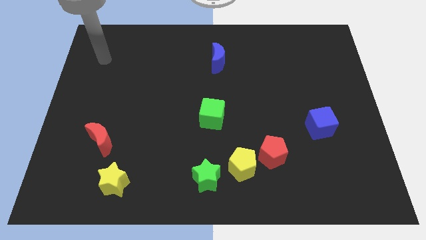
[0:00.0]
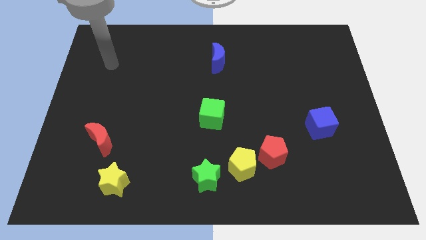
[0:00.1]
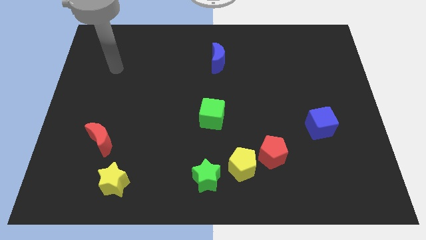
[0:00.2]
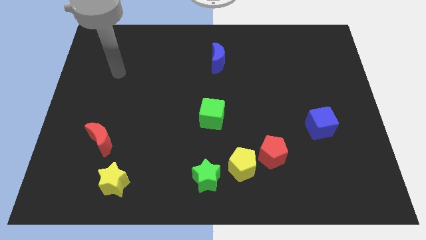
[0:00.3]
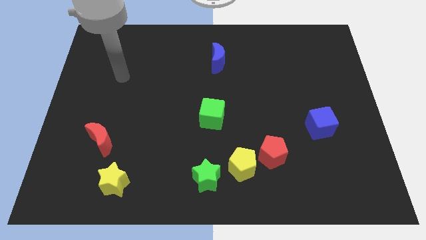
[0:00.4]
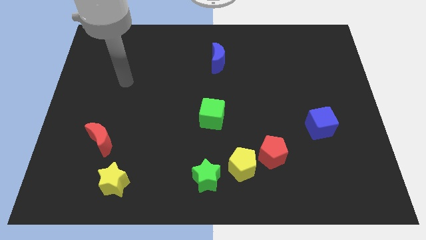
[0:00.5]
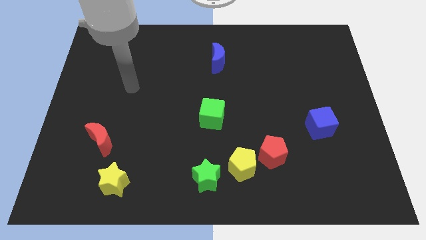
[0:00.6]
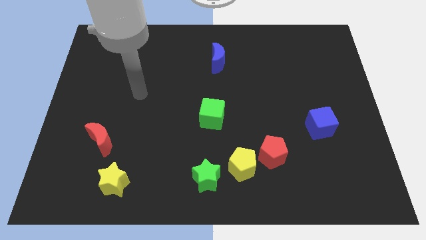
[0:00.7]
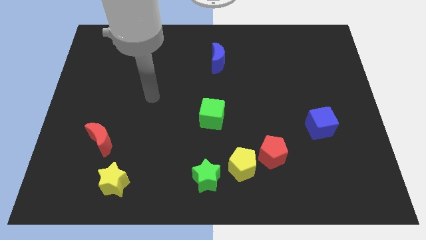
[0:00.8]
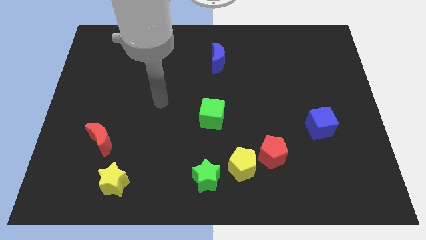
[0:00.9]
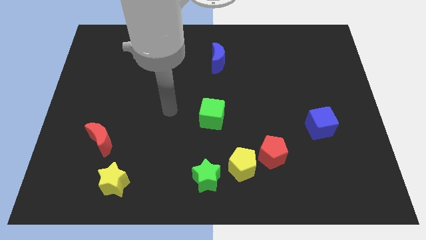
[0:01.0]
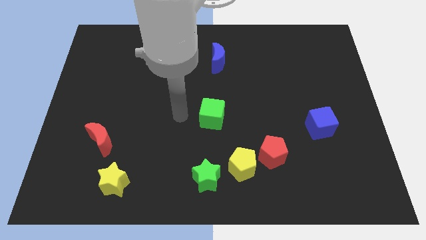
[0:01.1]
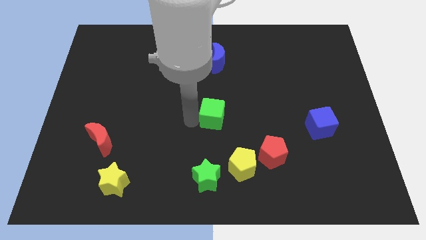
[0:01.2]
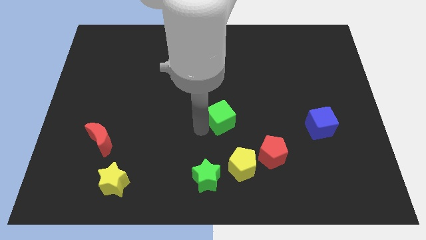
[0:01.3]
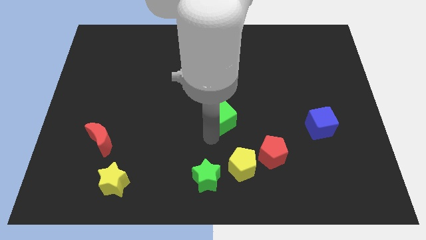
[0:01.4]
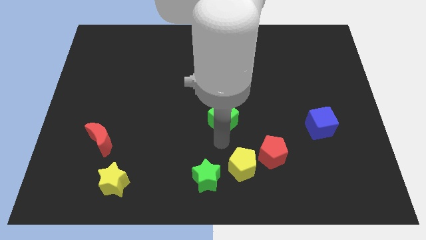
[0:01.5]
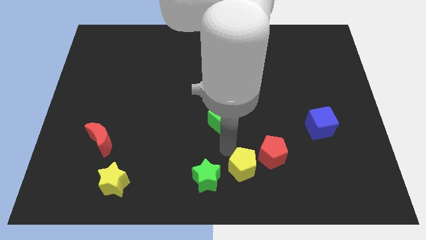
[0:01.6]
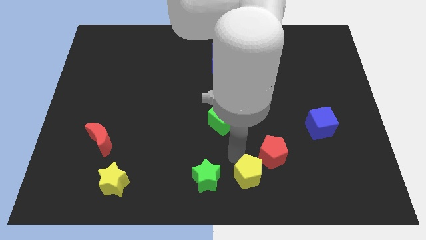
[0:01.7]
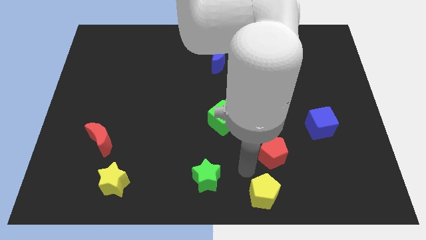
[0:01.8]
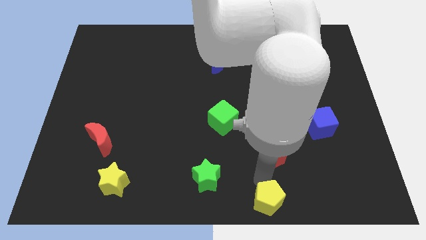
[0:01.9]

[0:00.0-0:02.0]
separate the red pentagon from the yellow pentagon

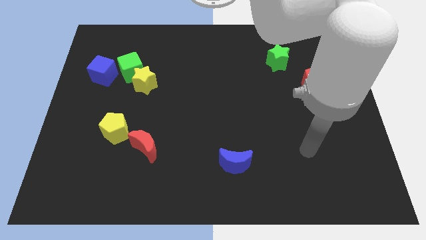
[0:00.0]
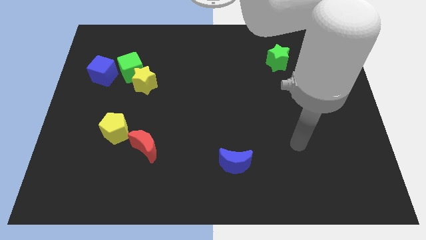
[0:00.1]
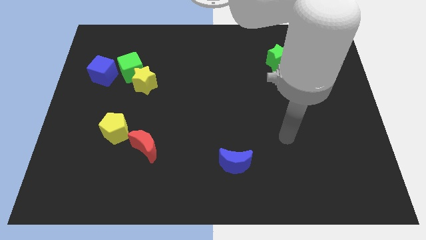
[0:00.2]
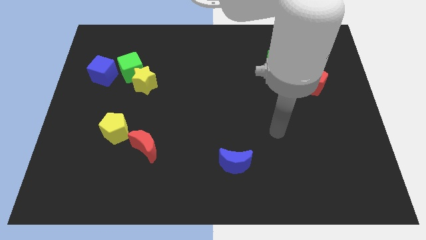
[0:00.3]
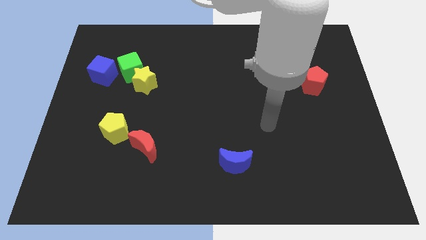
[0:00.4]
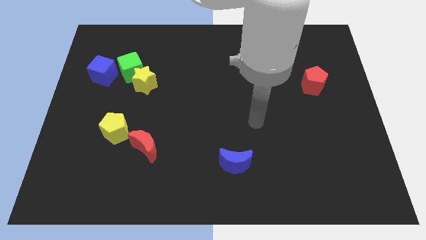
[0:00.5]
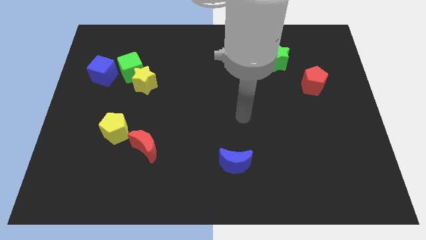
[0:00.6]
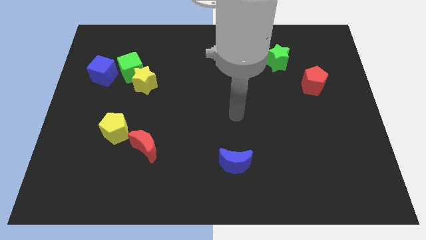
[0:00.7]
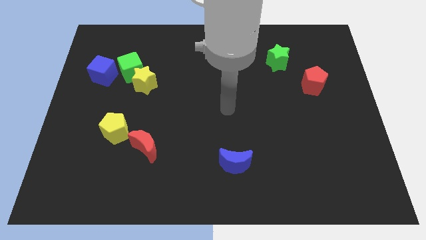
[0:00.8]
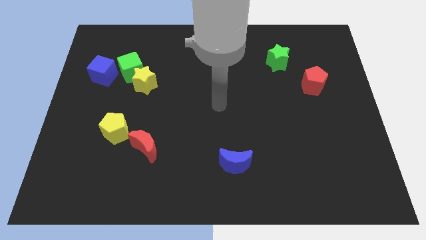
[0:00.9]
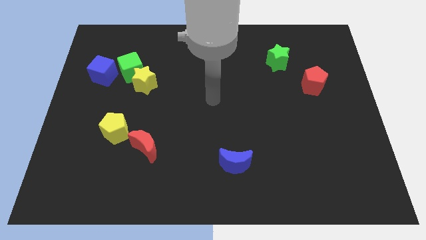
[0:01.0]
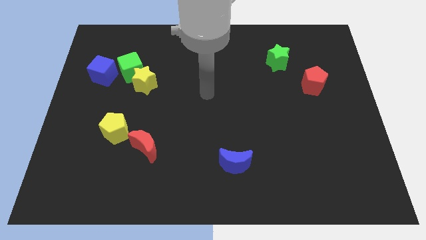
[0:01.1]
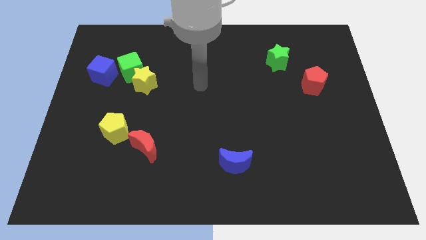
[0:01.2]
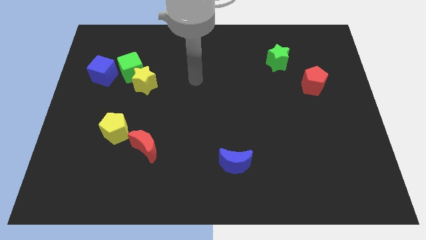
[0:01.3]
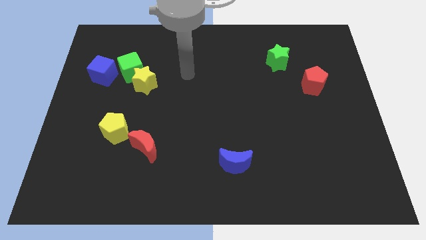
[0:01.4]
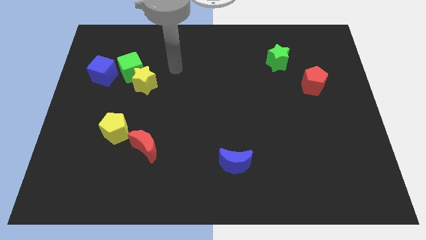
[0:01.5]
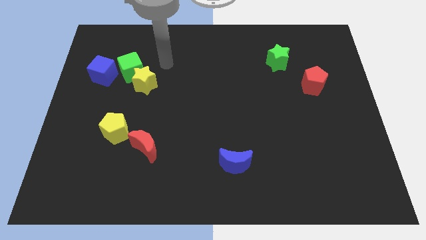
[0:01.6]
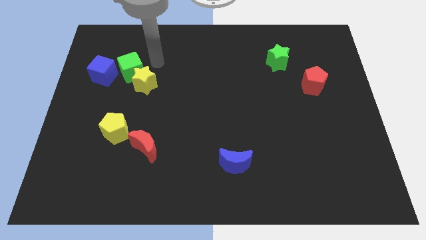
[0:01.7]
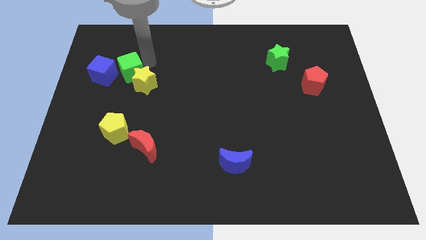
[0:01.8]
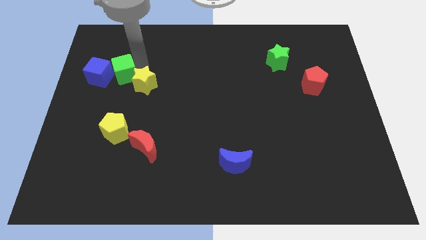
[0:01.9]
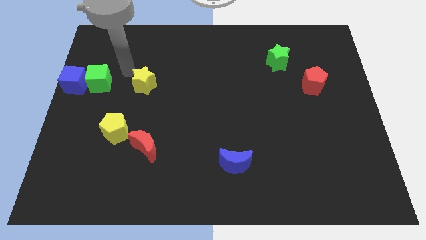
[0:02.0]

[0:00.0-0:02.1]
separate the yellow star from the green cube

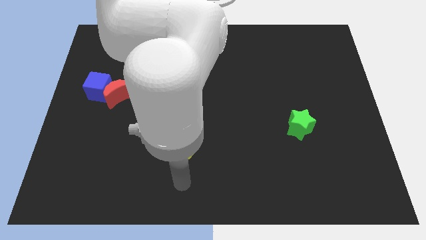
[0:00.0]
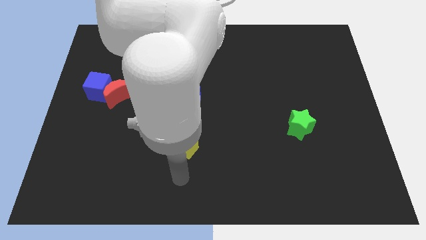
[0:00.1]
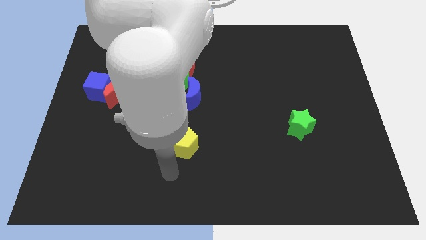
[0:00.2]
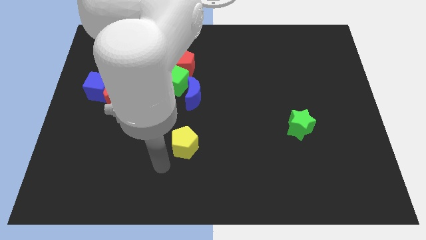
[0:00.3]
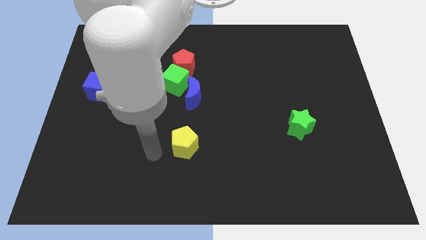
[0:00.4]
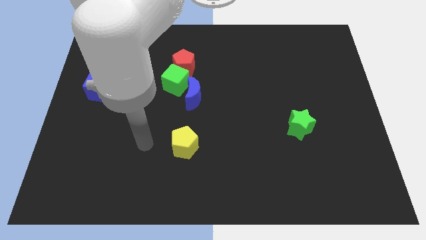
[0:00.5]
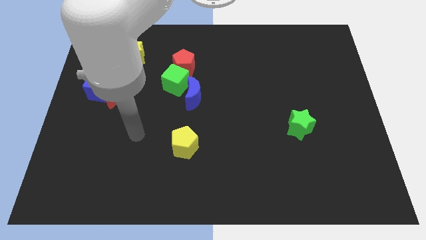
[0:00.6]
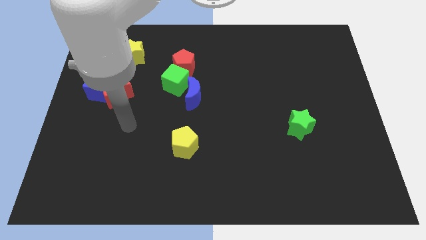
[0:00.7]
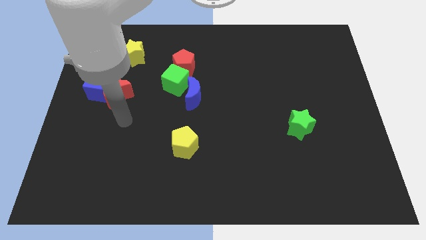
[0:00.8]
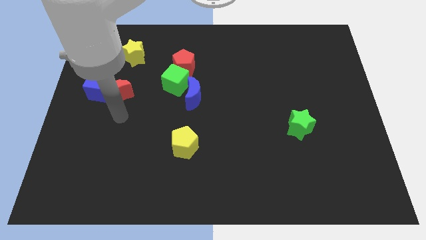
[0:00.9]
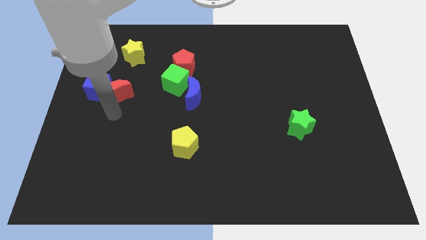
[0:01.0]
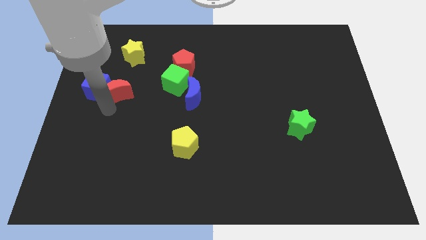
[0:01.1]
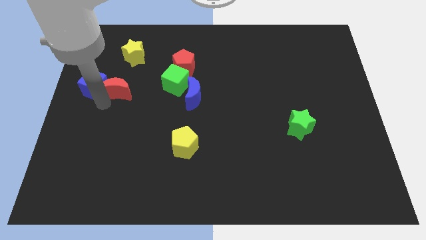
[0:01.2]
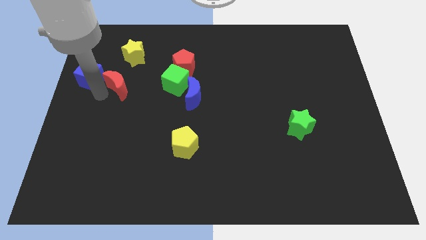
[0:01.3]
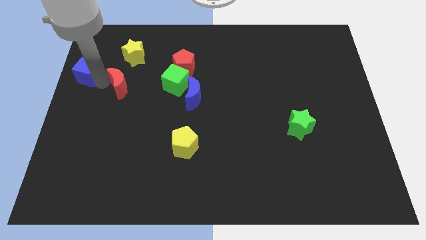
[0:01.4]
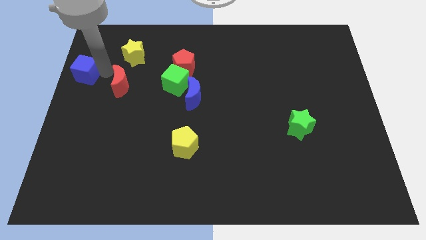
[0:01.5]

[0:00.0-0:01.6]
pull the red moon apart from the blue cube

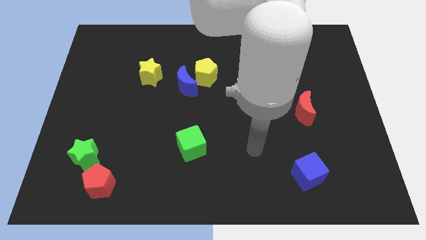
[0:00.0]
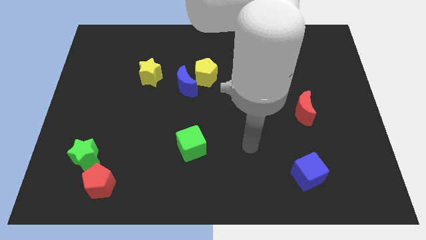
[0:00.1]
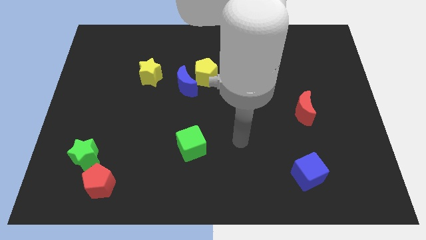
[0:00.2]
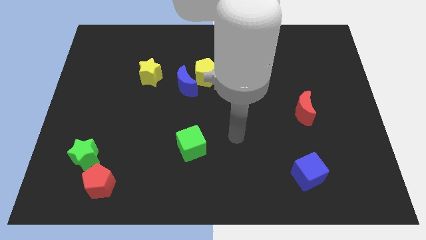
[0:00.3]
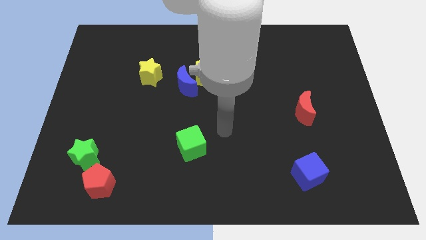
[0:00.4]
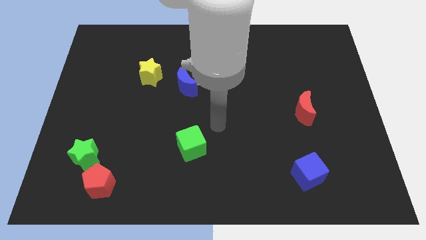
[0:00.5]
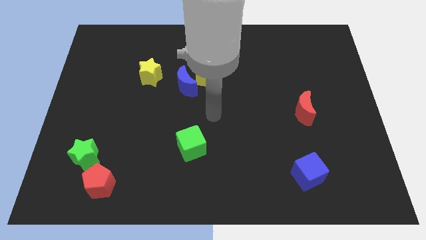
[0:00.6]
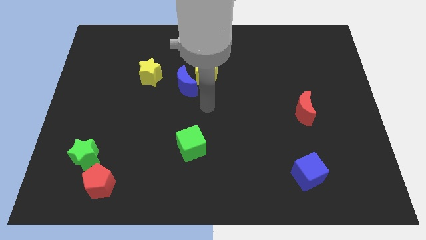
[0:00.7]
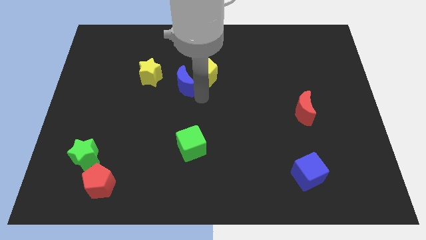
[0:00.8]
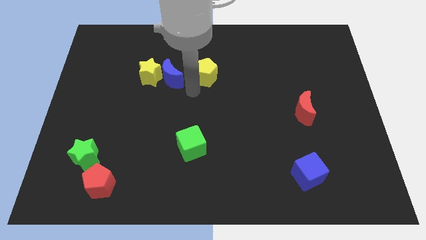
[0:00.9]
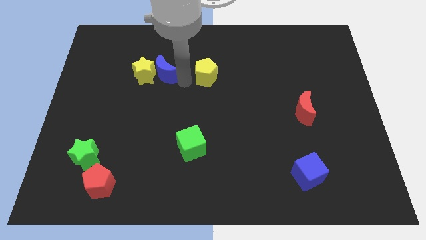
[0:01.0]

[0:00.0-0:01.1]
separate the yellow pentagon from the blue moon

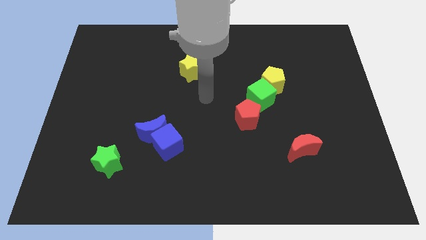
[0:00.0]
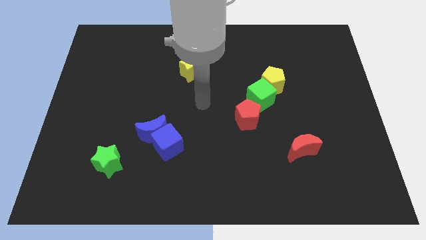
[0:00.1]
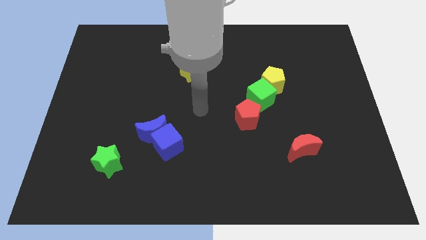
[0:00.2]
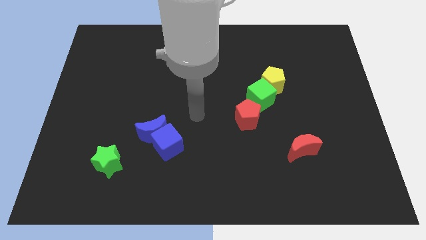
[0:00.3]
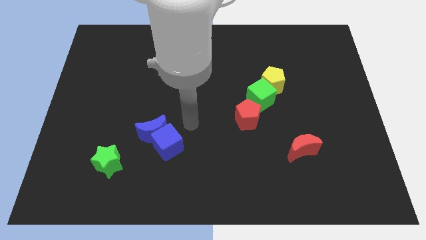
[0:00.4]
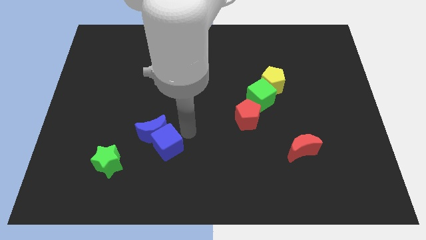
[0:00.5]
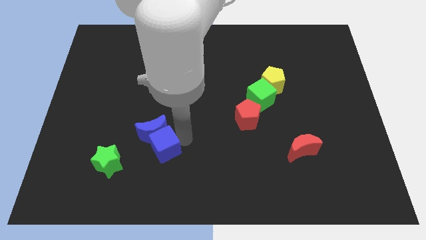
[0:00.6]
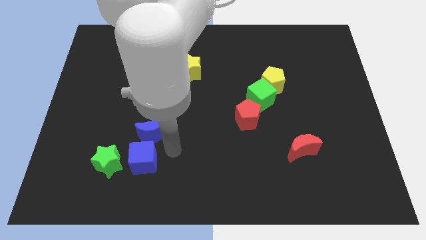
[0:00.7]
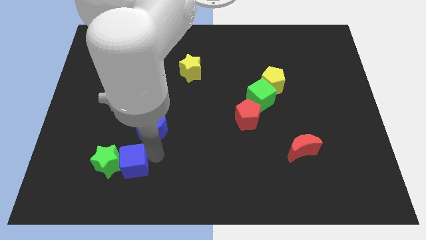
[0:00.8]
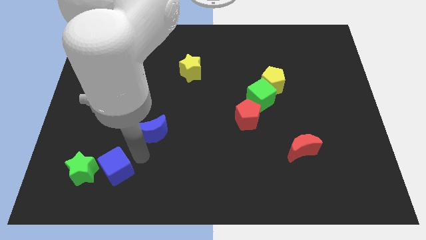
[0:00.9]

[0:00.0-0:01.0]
separate the blue moon from the blue cube

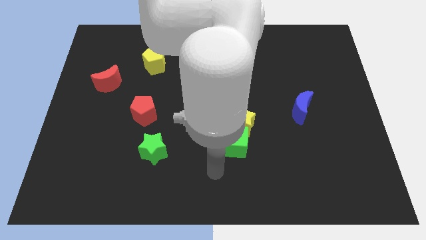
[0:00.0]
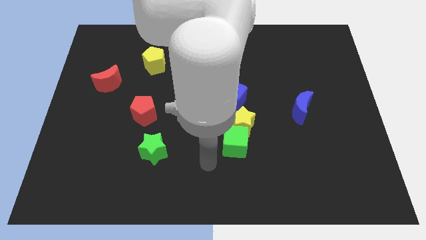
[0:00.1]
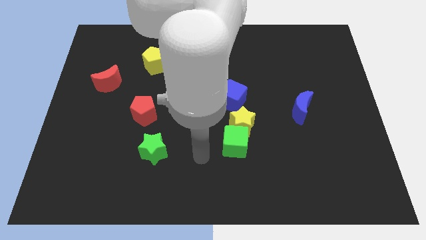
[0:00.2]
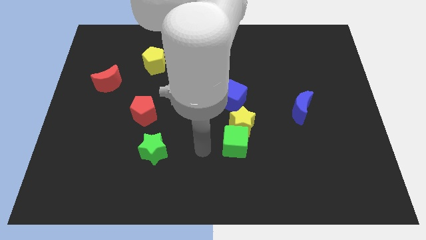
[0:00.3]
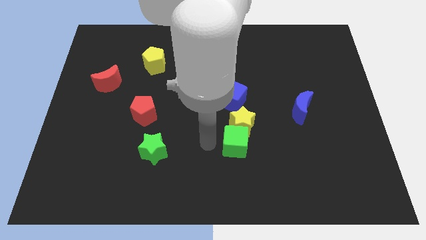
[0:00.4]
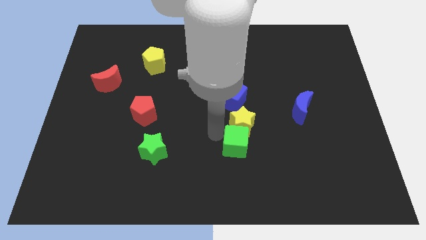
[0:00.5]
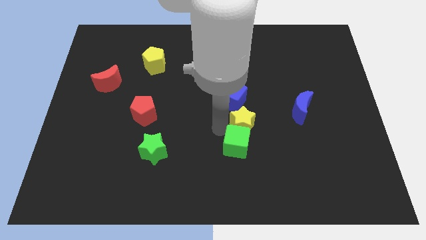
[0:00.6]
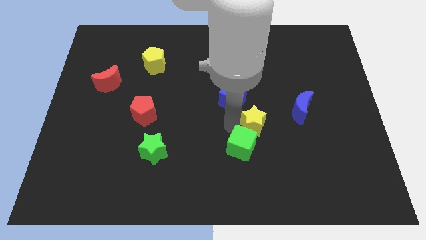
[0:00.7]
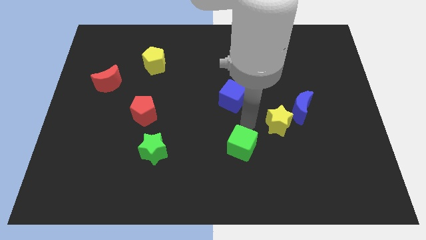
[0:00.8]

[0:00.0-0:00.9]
move the green cube away from the yellow star

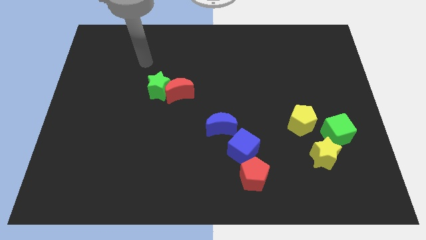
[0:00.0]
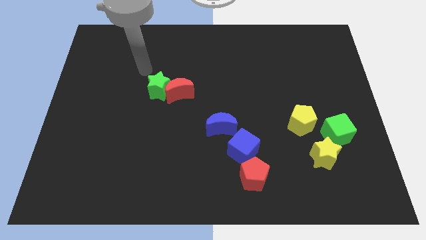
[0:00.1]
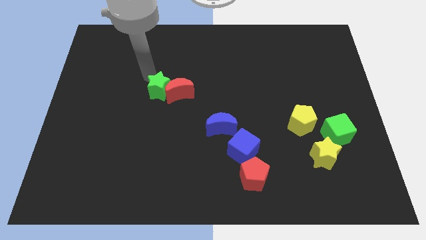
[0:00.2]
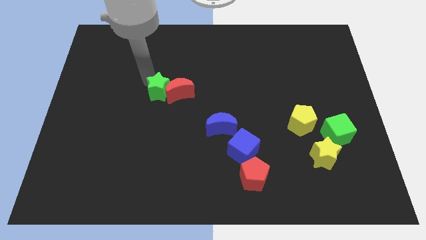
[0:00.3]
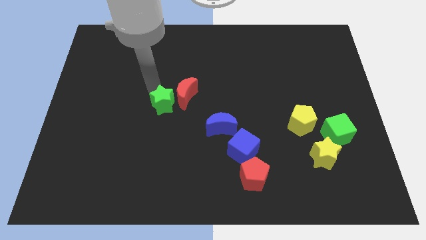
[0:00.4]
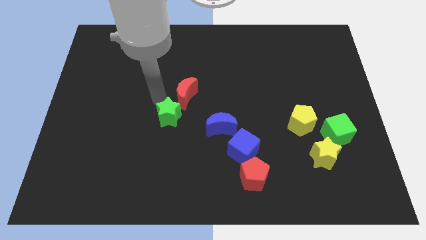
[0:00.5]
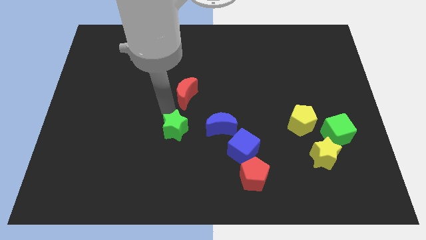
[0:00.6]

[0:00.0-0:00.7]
pull the red moon apart from the green star
